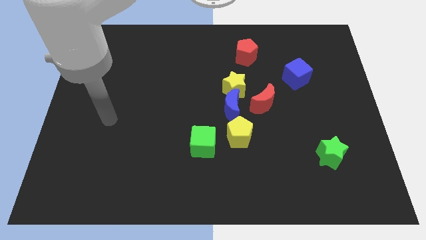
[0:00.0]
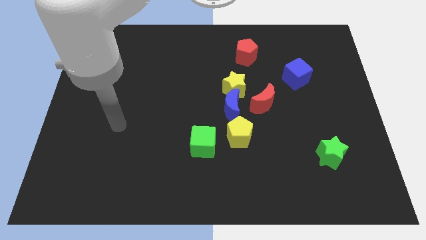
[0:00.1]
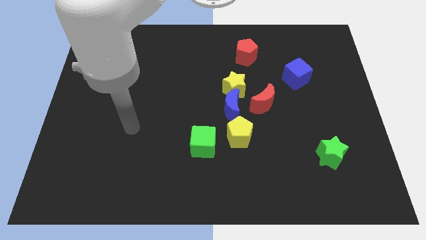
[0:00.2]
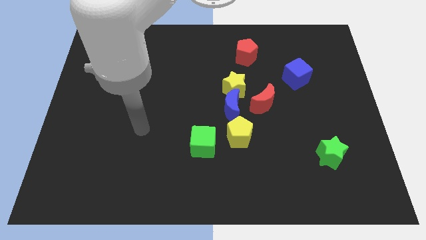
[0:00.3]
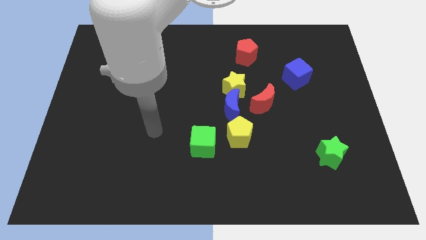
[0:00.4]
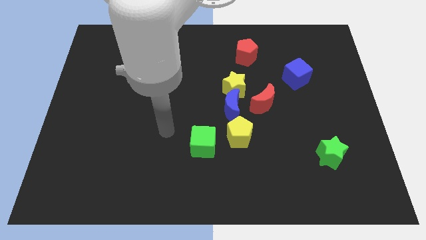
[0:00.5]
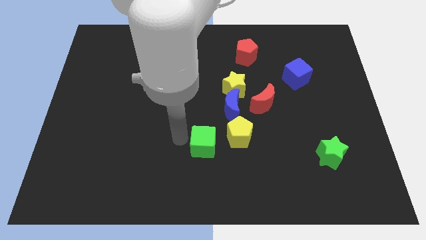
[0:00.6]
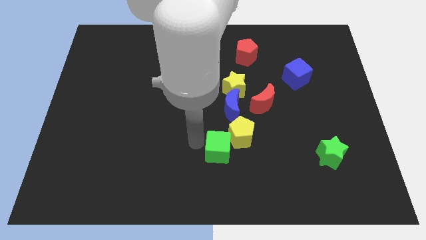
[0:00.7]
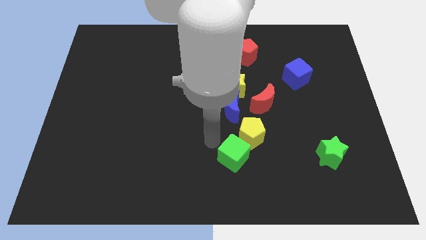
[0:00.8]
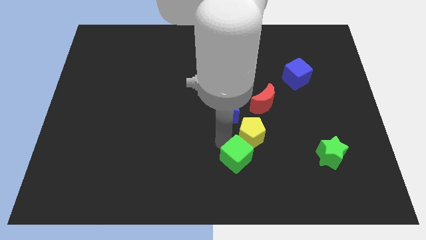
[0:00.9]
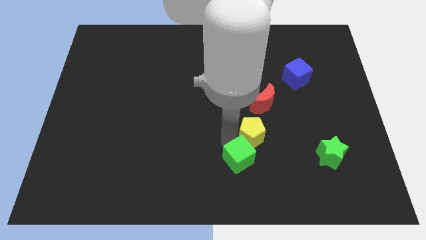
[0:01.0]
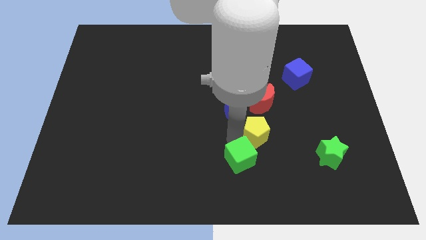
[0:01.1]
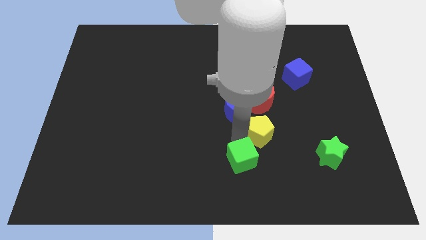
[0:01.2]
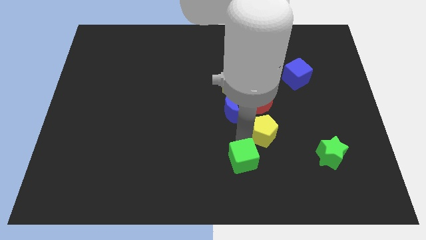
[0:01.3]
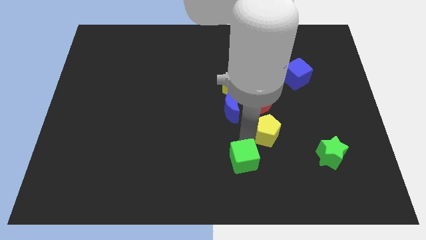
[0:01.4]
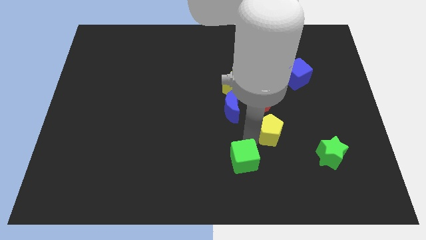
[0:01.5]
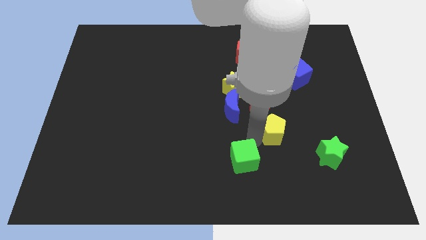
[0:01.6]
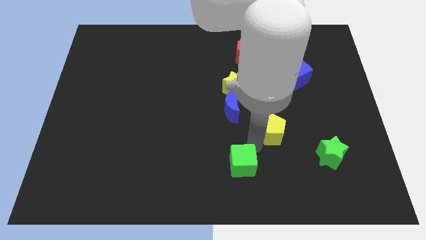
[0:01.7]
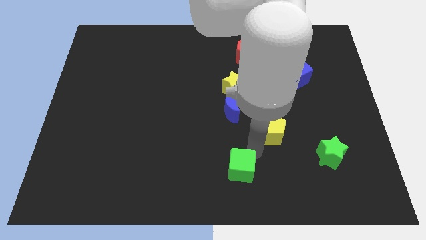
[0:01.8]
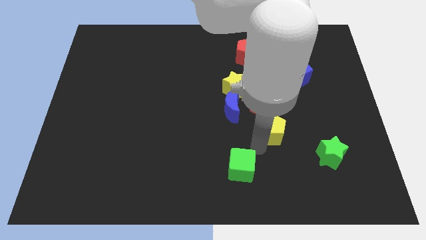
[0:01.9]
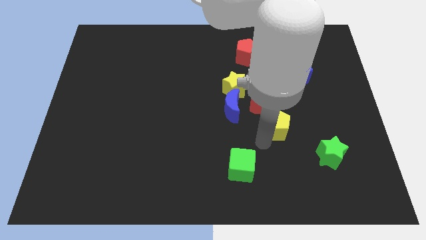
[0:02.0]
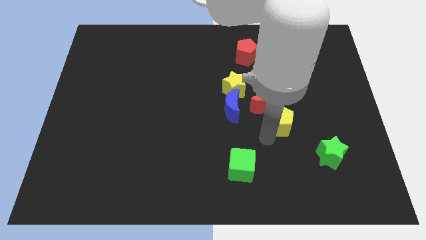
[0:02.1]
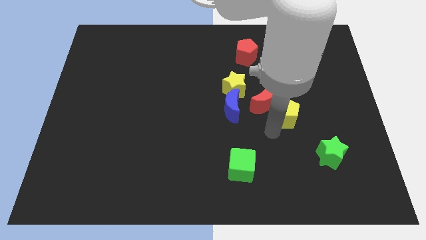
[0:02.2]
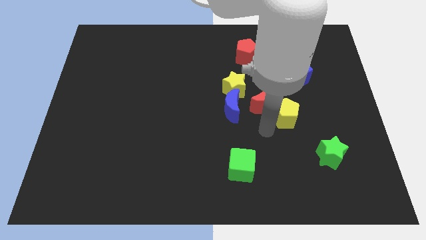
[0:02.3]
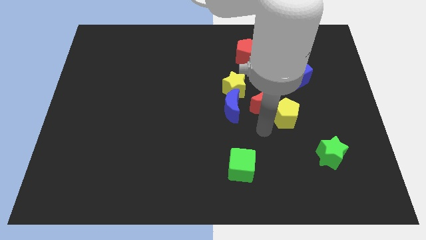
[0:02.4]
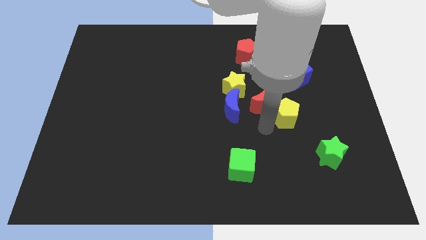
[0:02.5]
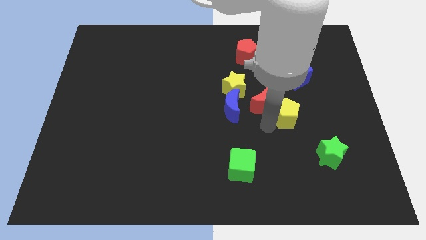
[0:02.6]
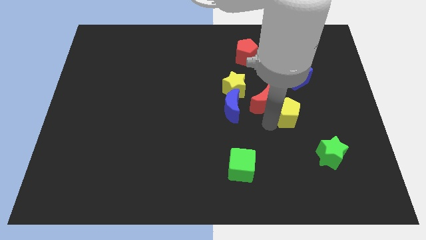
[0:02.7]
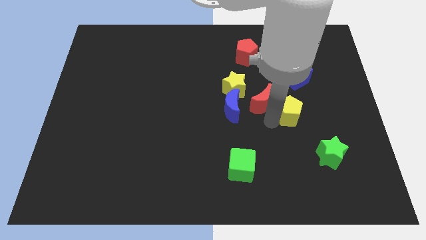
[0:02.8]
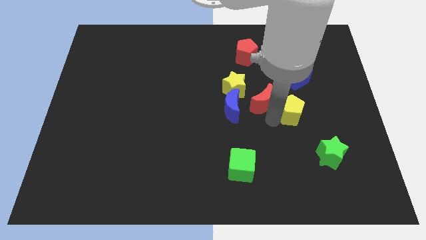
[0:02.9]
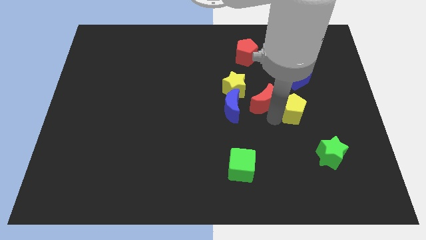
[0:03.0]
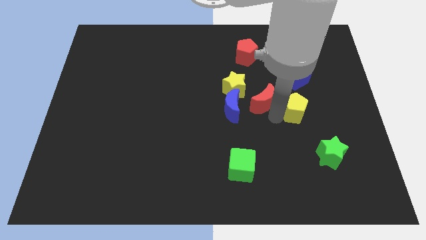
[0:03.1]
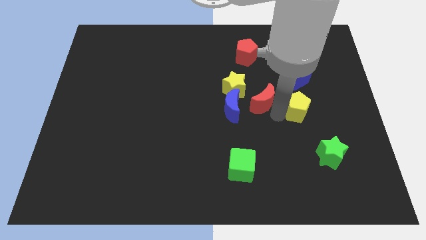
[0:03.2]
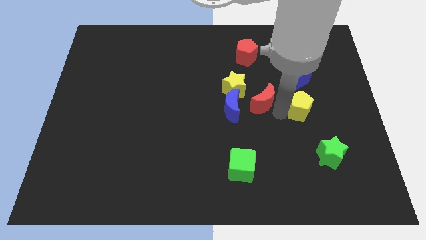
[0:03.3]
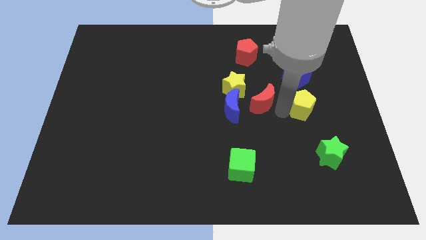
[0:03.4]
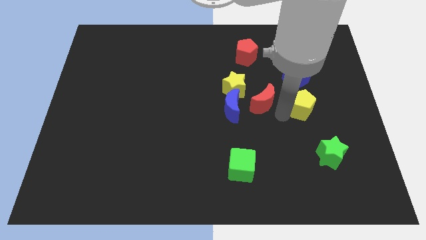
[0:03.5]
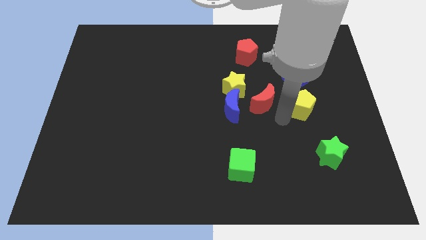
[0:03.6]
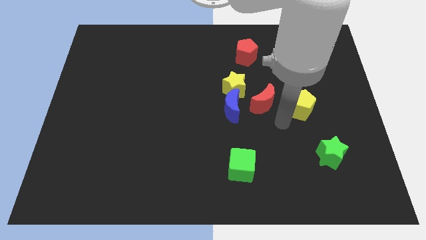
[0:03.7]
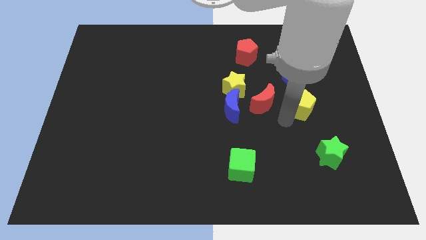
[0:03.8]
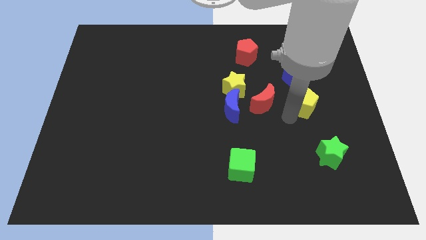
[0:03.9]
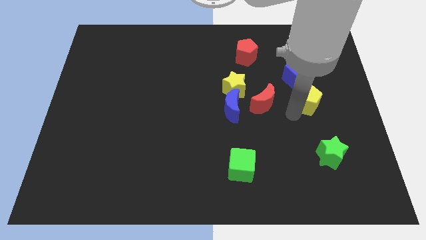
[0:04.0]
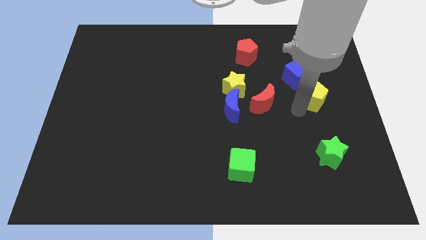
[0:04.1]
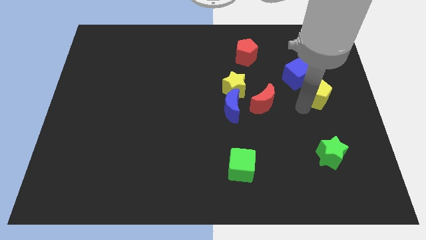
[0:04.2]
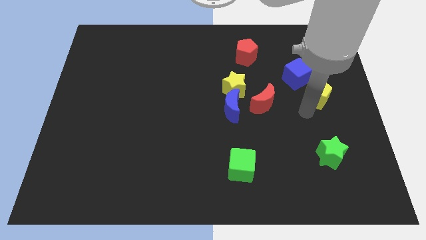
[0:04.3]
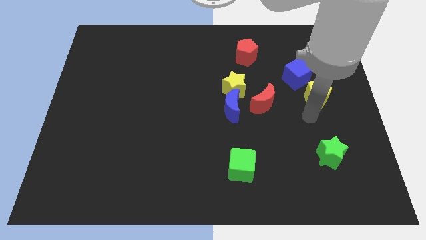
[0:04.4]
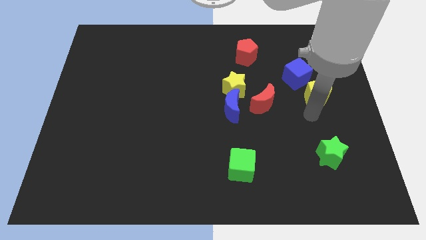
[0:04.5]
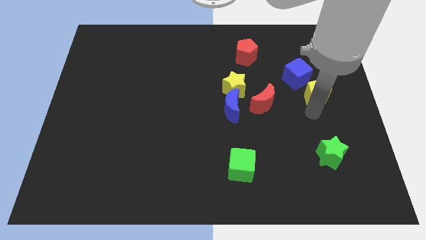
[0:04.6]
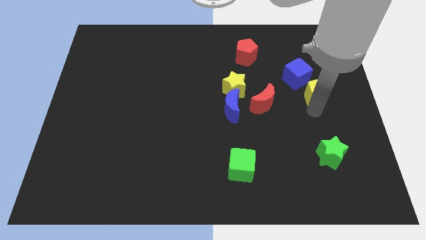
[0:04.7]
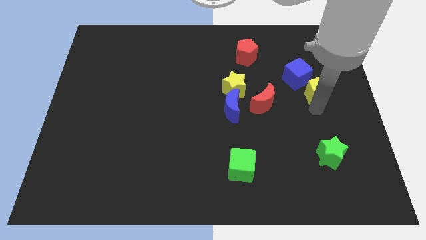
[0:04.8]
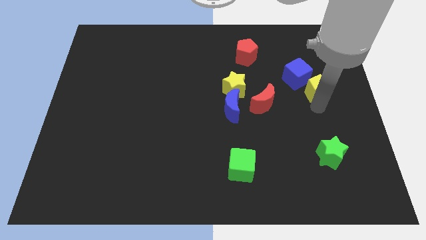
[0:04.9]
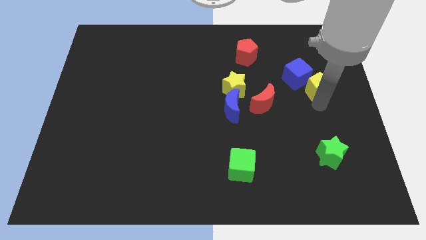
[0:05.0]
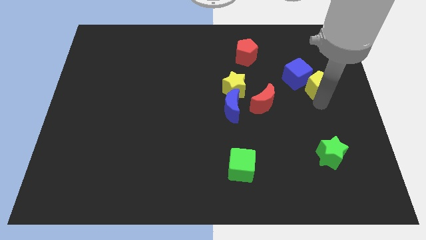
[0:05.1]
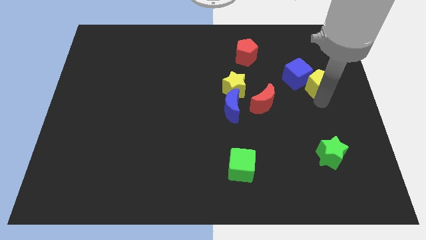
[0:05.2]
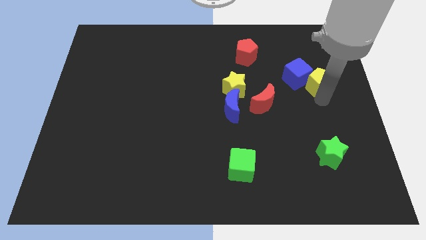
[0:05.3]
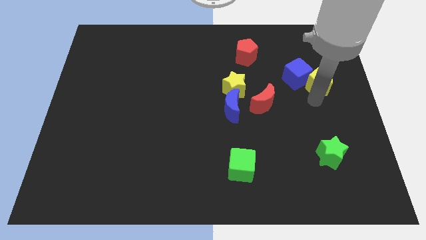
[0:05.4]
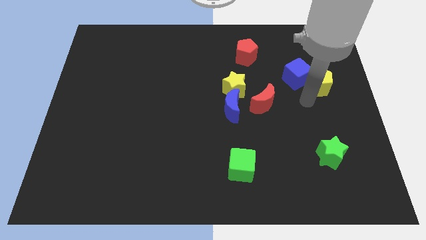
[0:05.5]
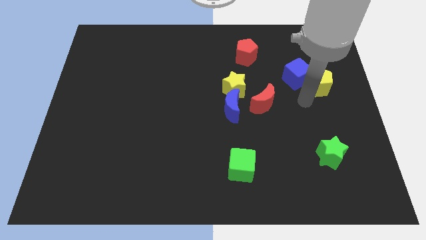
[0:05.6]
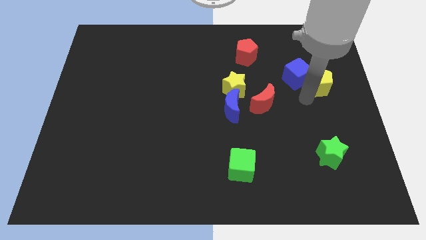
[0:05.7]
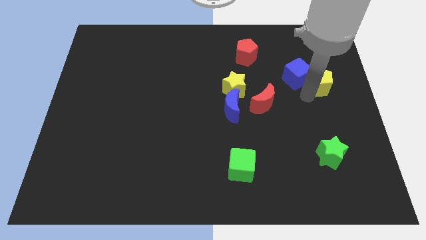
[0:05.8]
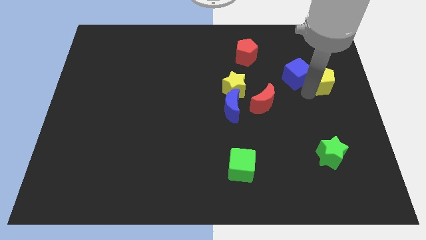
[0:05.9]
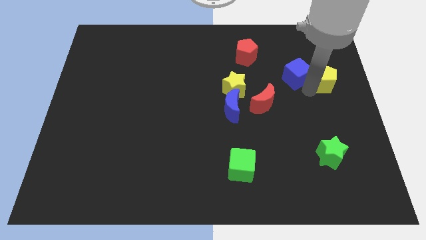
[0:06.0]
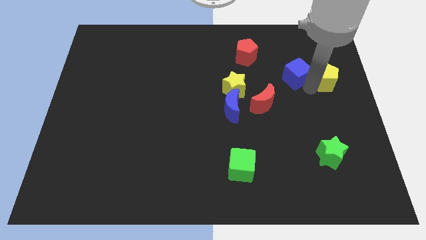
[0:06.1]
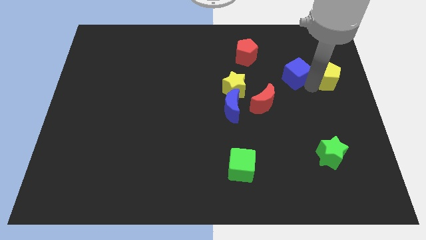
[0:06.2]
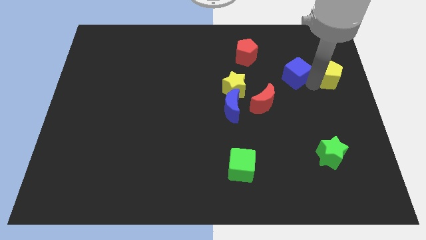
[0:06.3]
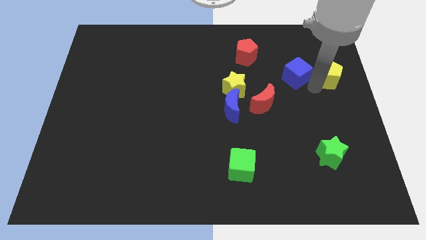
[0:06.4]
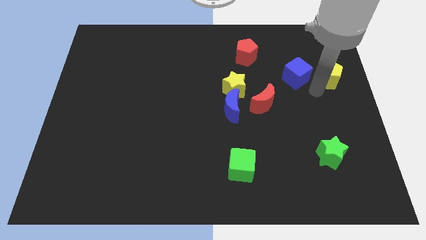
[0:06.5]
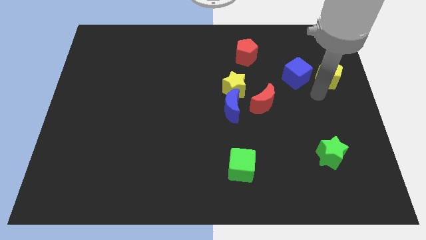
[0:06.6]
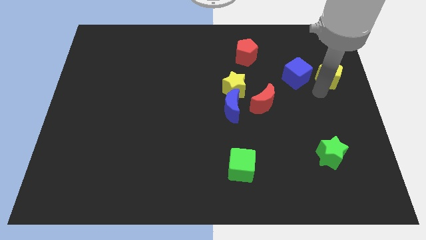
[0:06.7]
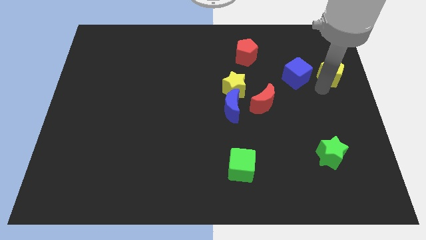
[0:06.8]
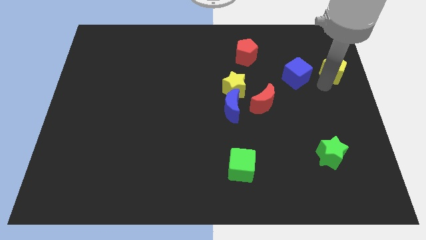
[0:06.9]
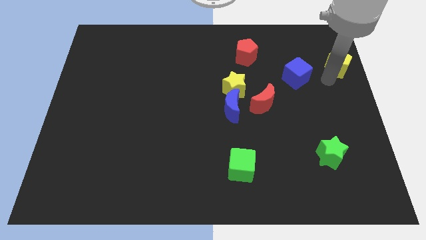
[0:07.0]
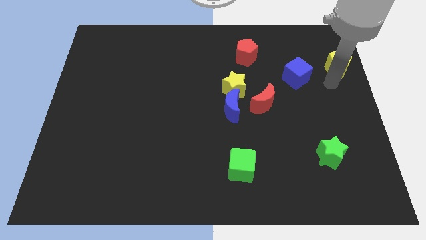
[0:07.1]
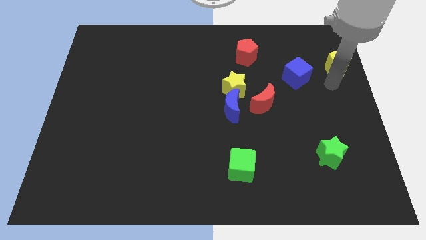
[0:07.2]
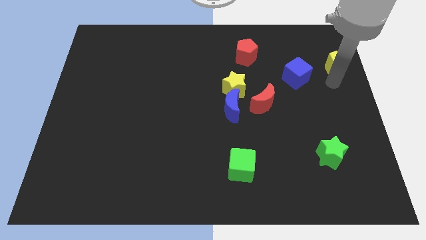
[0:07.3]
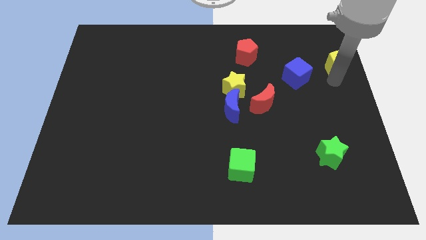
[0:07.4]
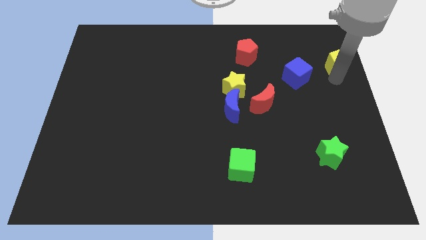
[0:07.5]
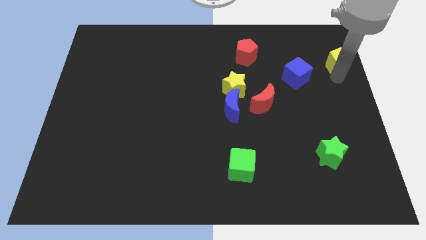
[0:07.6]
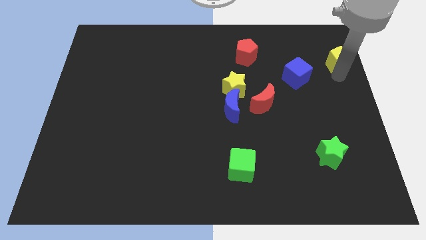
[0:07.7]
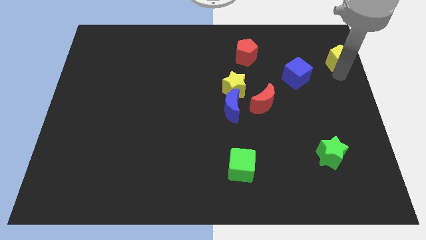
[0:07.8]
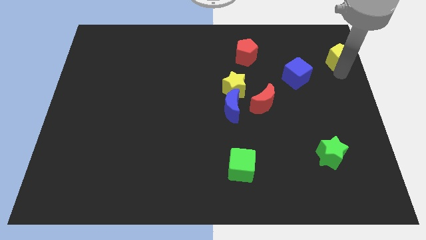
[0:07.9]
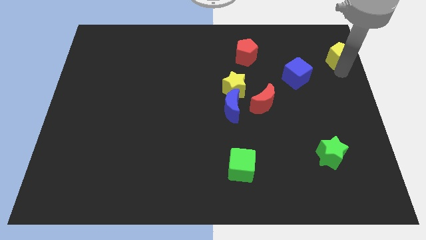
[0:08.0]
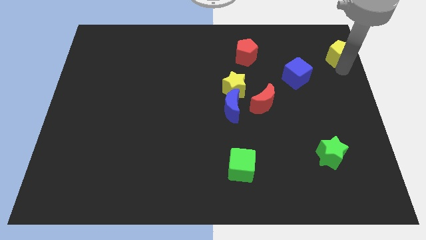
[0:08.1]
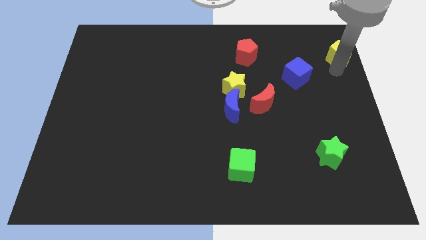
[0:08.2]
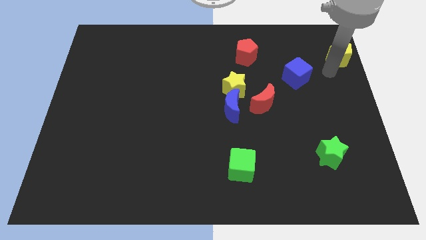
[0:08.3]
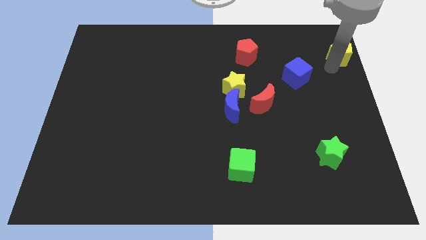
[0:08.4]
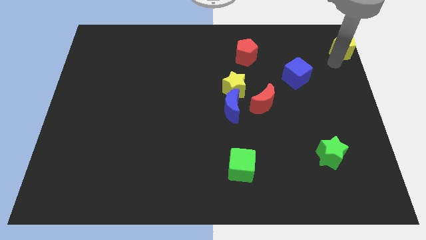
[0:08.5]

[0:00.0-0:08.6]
put the yellow pentagon to the top right corner
